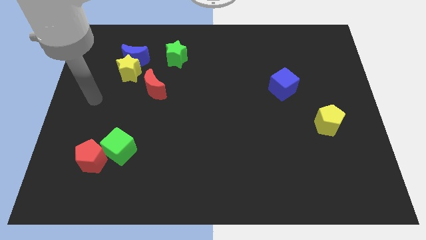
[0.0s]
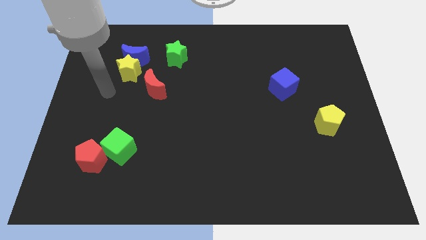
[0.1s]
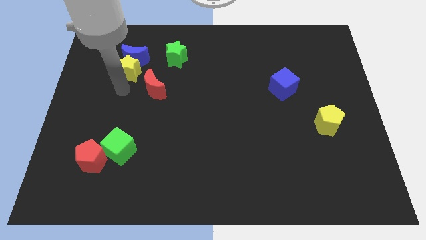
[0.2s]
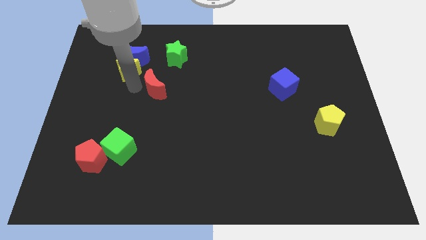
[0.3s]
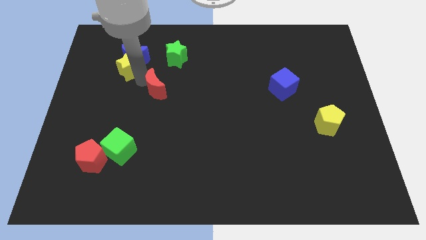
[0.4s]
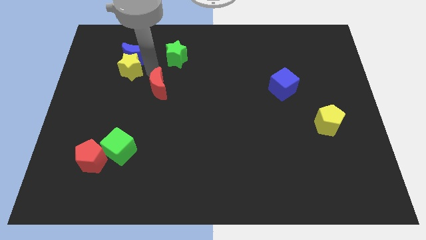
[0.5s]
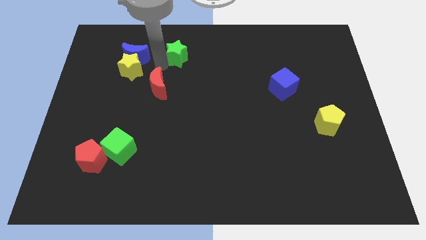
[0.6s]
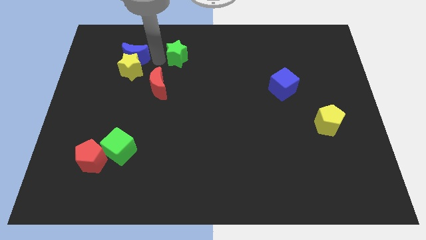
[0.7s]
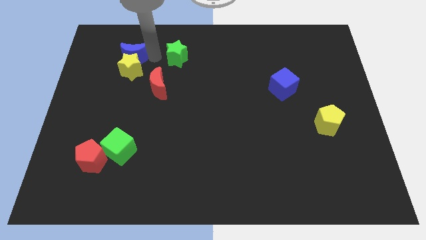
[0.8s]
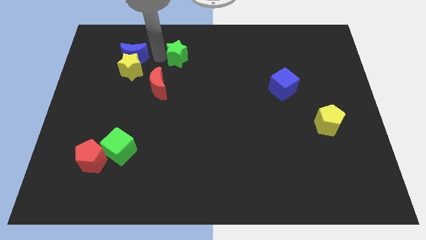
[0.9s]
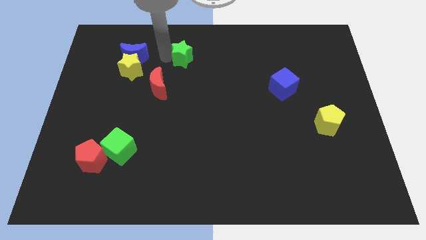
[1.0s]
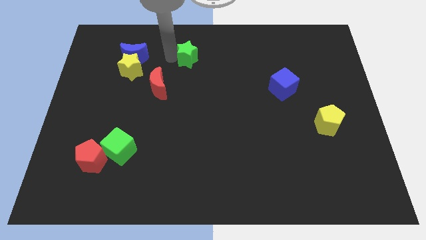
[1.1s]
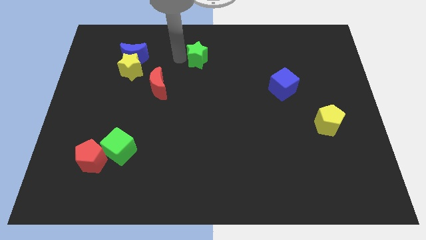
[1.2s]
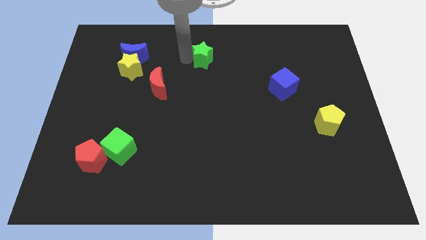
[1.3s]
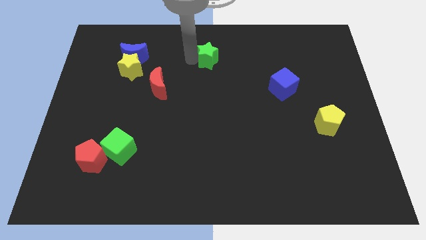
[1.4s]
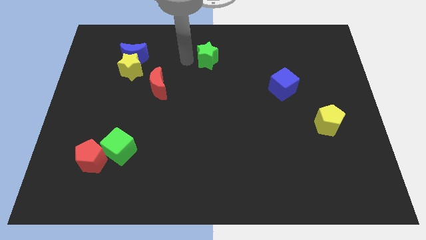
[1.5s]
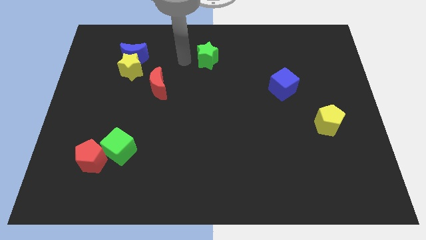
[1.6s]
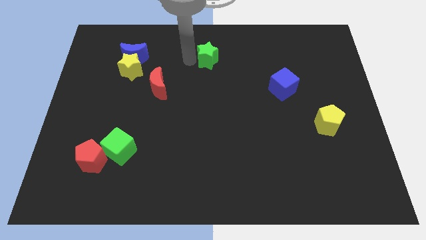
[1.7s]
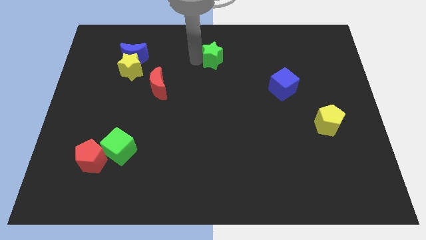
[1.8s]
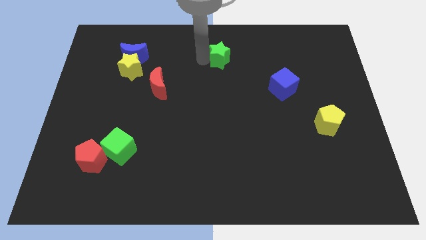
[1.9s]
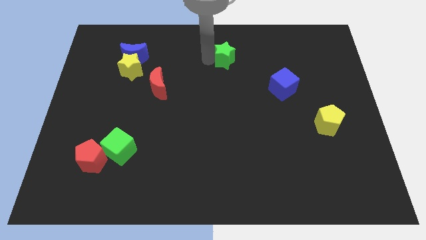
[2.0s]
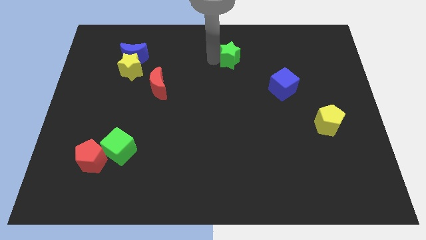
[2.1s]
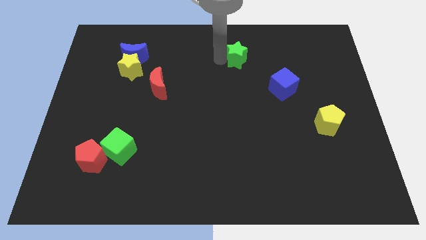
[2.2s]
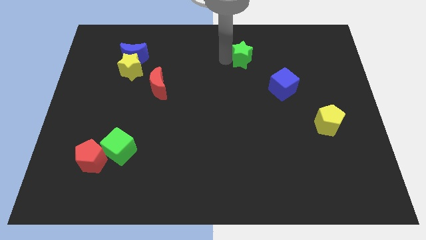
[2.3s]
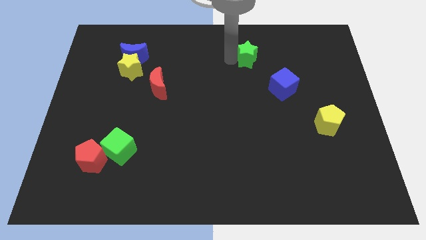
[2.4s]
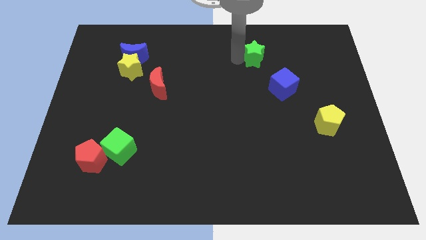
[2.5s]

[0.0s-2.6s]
push the green star to the right

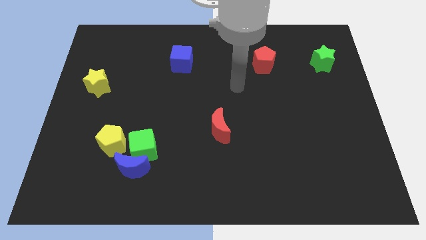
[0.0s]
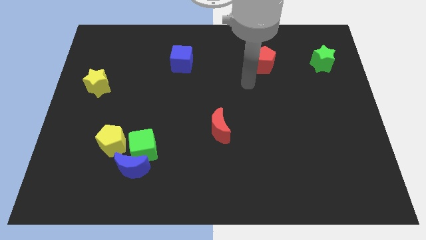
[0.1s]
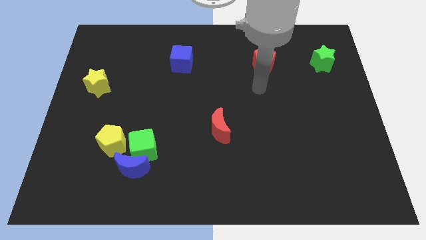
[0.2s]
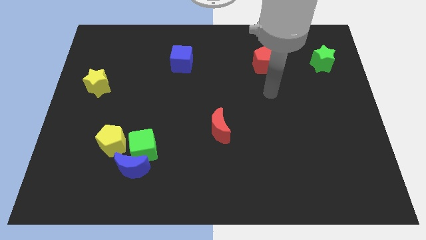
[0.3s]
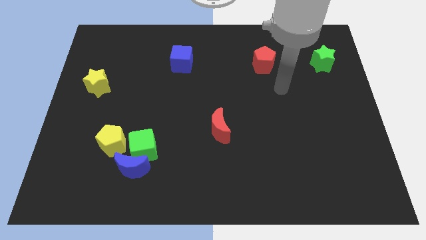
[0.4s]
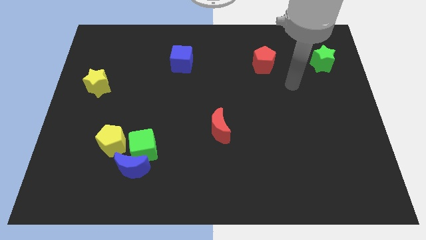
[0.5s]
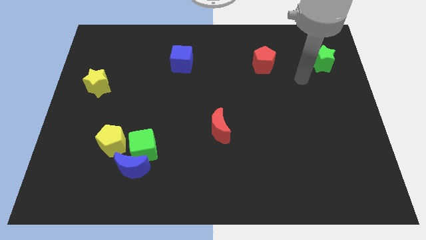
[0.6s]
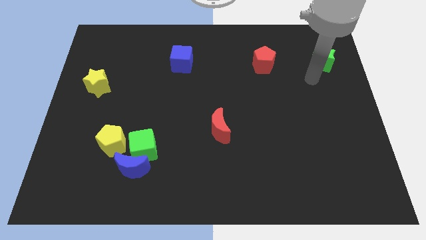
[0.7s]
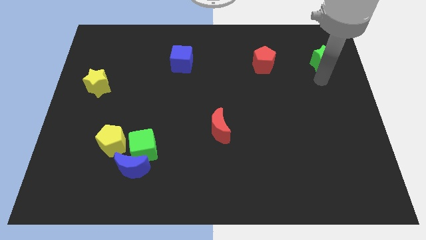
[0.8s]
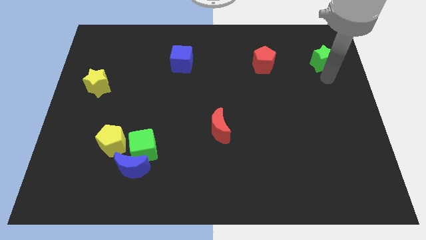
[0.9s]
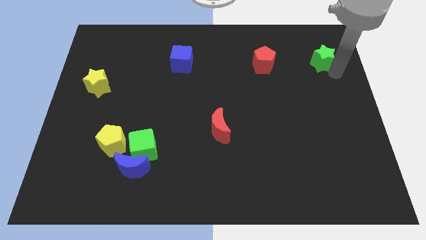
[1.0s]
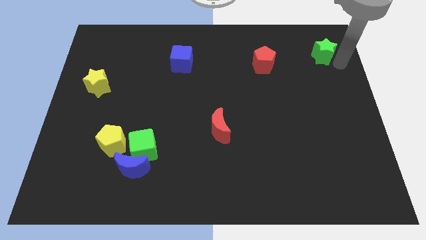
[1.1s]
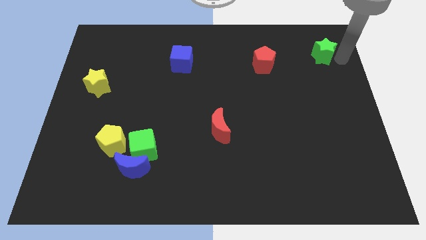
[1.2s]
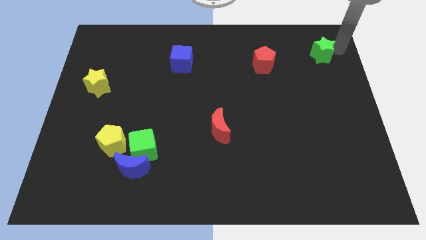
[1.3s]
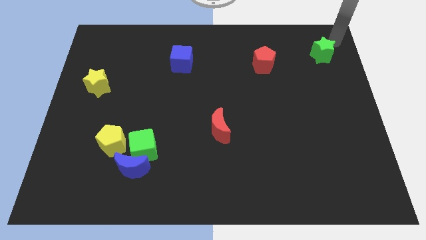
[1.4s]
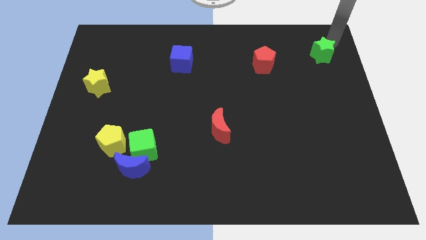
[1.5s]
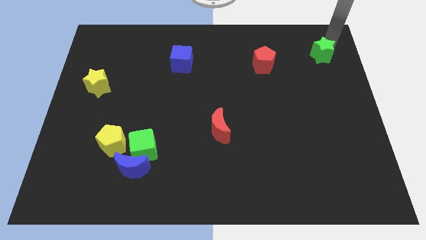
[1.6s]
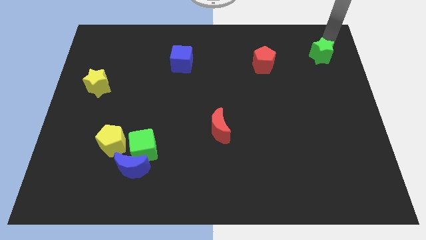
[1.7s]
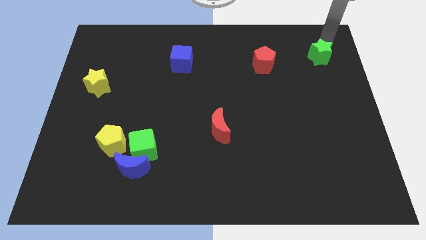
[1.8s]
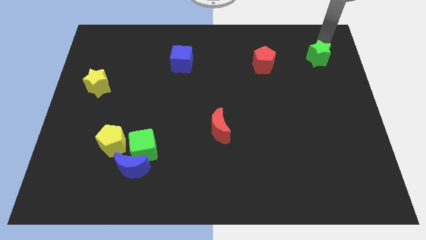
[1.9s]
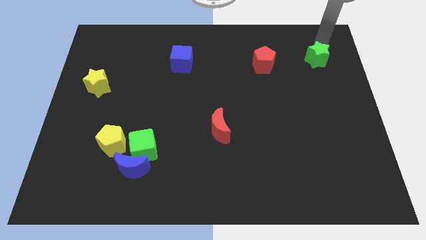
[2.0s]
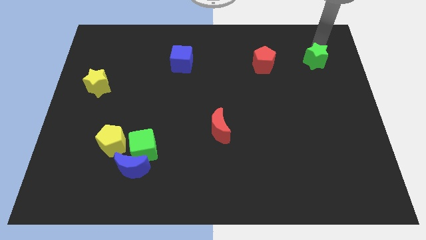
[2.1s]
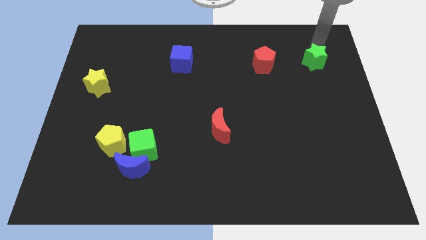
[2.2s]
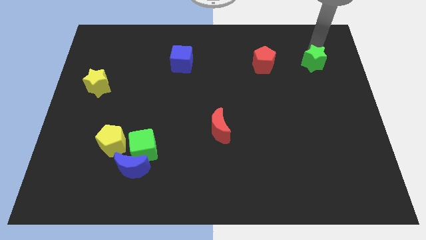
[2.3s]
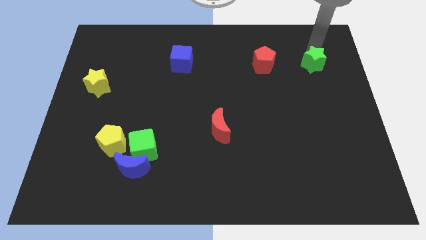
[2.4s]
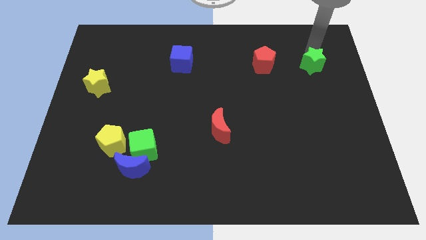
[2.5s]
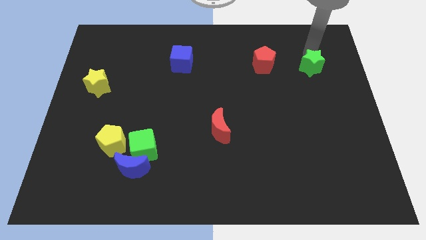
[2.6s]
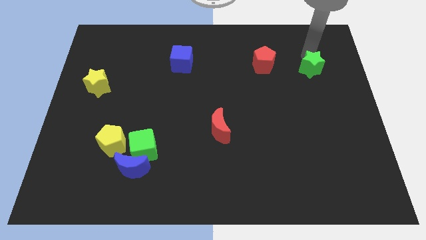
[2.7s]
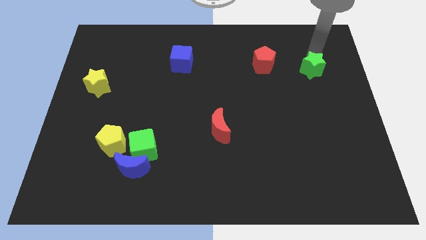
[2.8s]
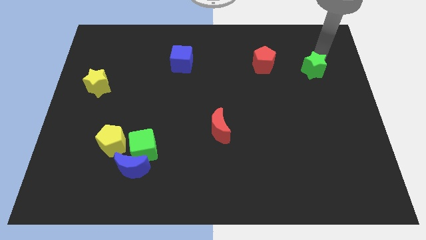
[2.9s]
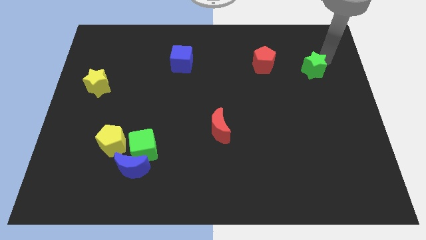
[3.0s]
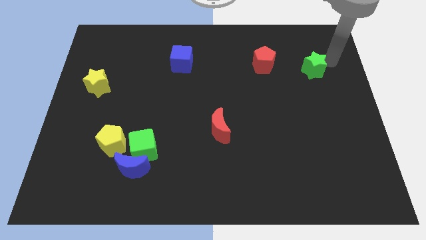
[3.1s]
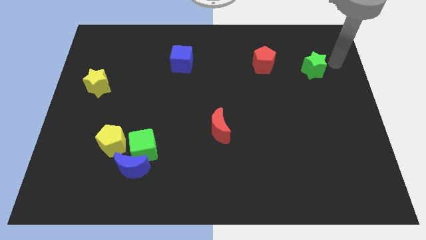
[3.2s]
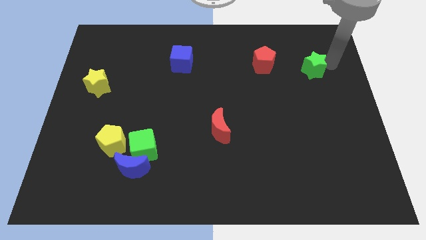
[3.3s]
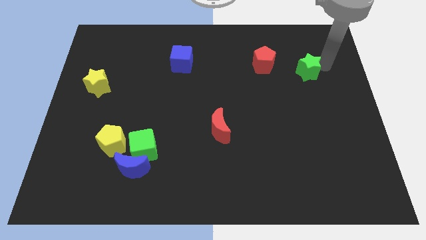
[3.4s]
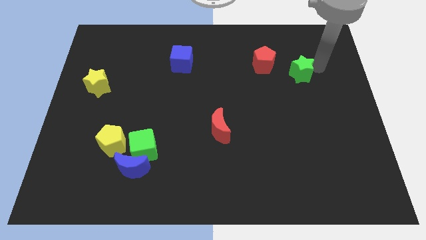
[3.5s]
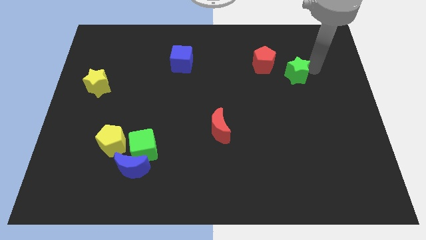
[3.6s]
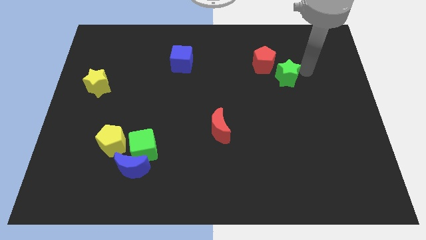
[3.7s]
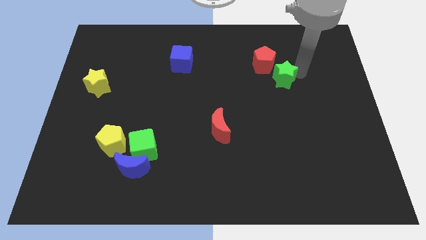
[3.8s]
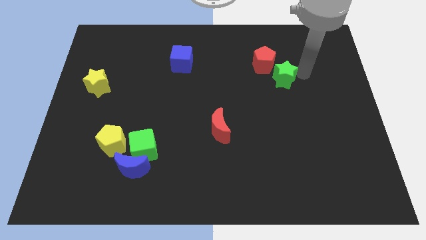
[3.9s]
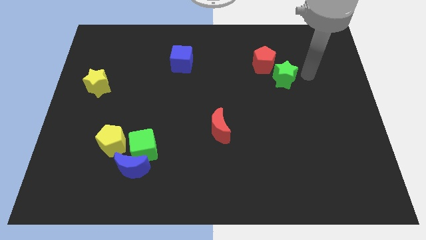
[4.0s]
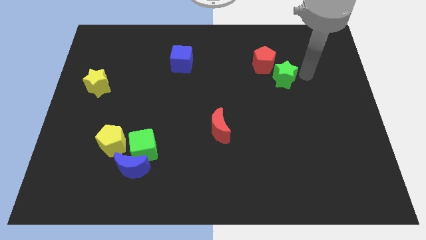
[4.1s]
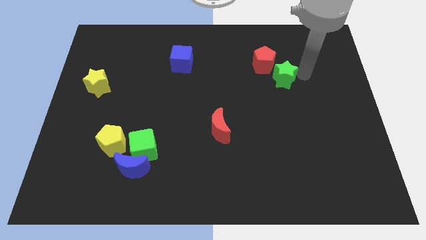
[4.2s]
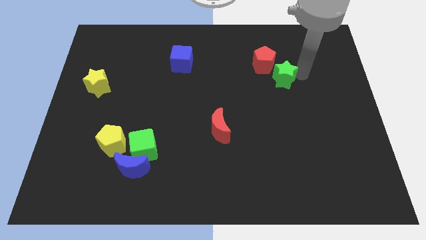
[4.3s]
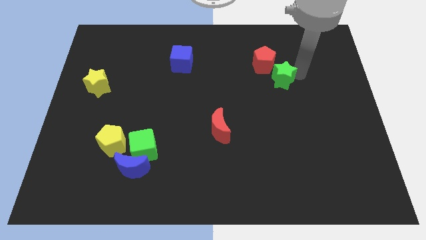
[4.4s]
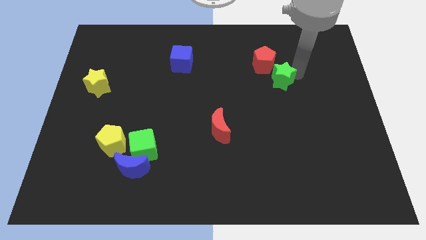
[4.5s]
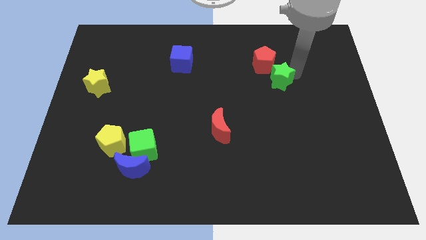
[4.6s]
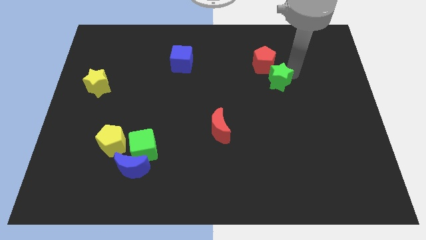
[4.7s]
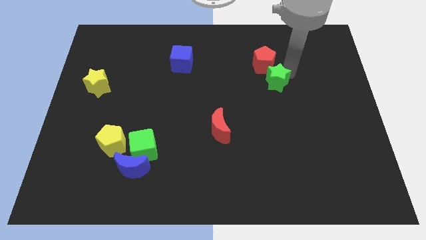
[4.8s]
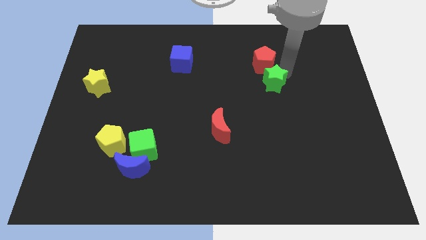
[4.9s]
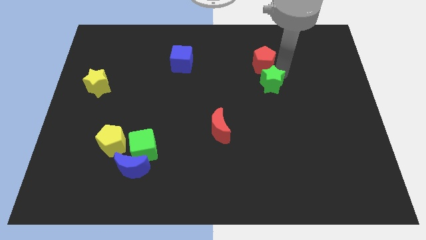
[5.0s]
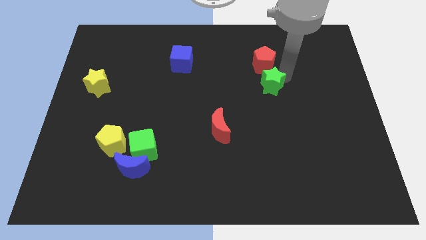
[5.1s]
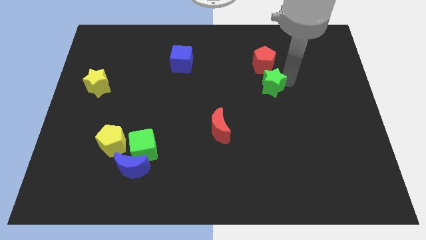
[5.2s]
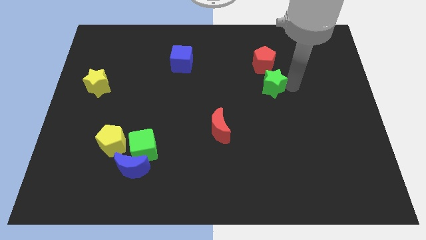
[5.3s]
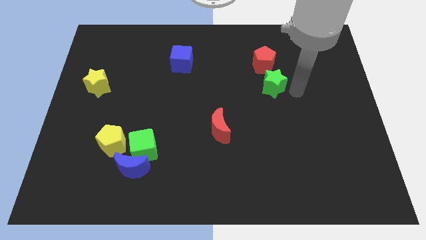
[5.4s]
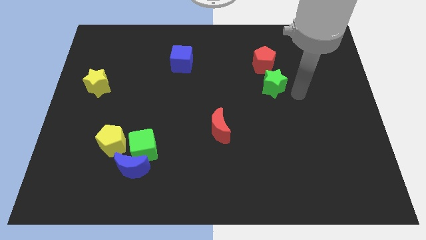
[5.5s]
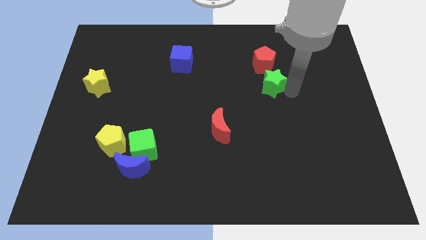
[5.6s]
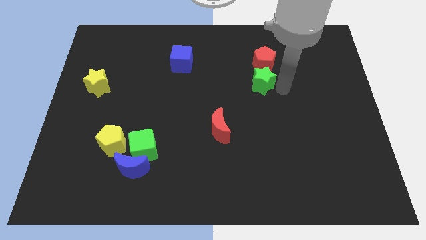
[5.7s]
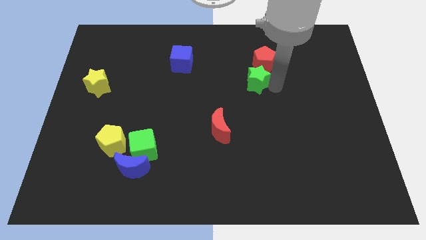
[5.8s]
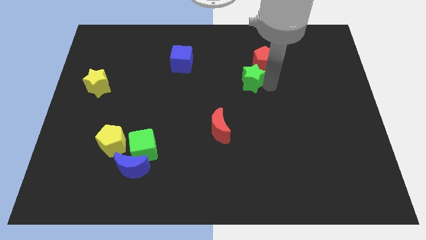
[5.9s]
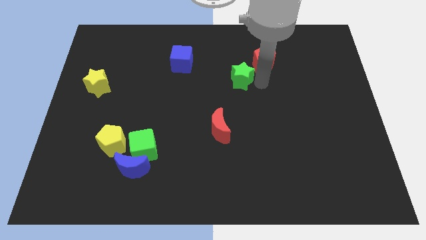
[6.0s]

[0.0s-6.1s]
push the green star left
